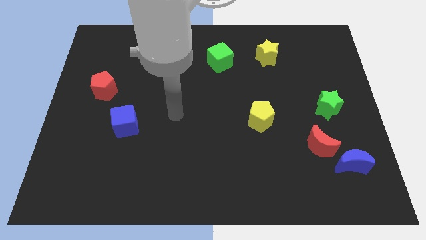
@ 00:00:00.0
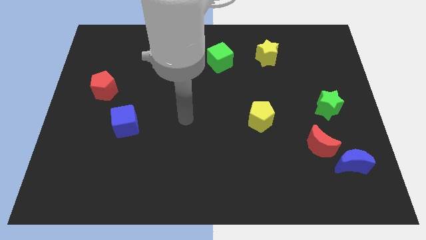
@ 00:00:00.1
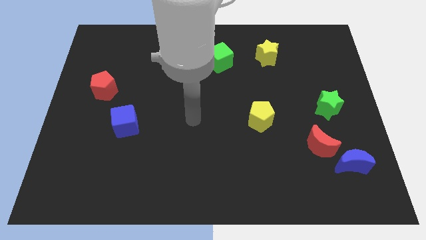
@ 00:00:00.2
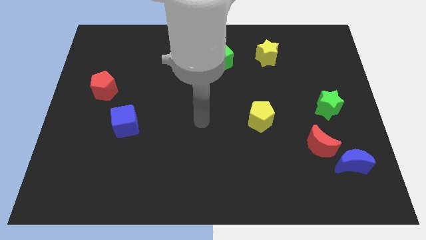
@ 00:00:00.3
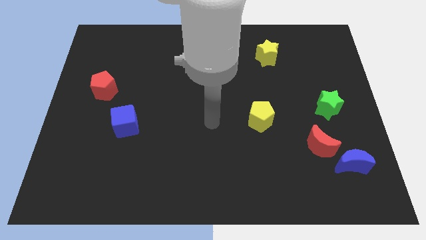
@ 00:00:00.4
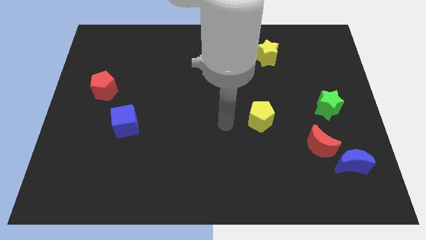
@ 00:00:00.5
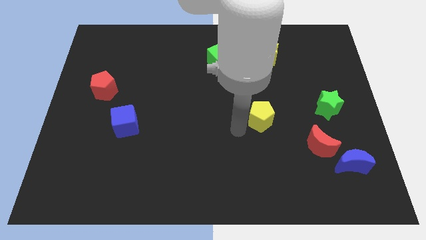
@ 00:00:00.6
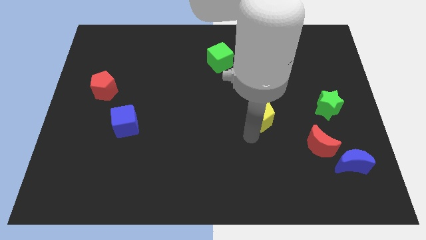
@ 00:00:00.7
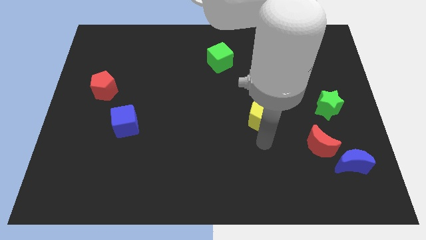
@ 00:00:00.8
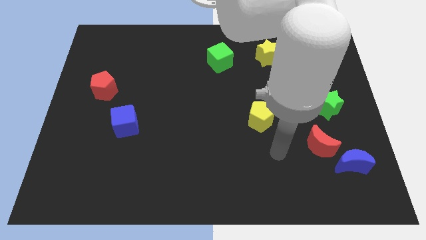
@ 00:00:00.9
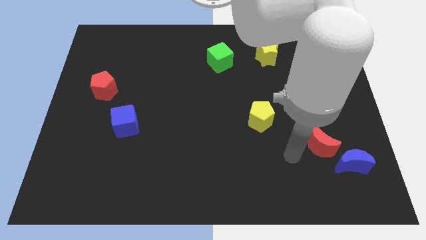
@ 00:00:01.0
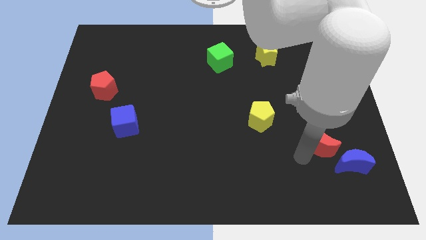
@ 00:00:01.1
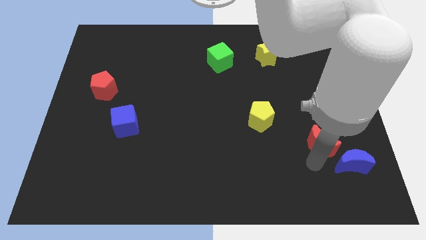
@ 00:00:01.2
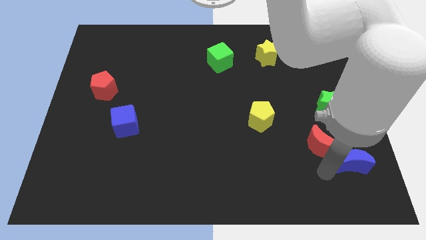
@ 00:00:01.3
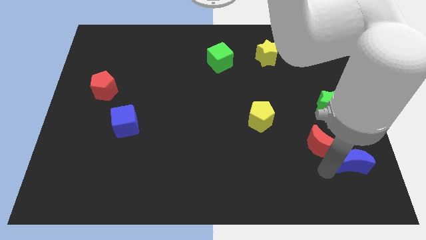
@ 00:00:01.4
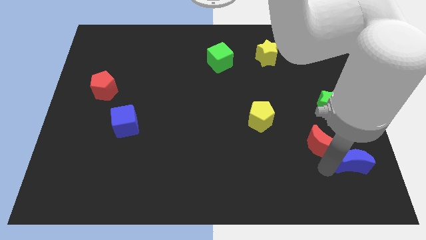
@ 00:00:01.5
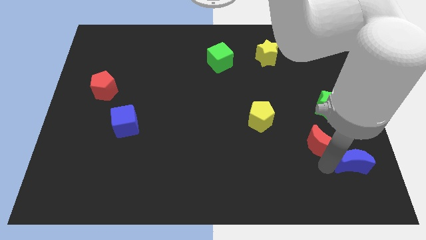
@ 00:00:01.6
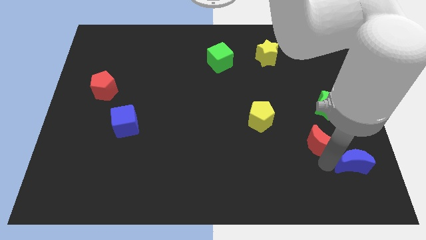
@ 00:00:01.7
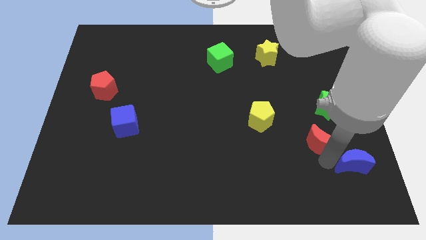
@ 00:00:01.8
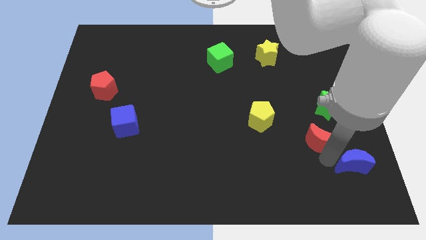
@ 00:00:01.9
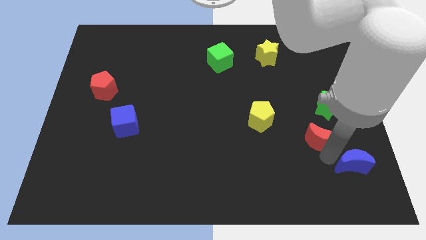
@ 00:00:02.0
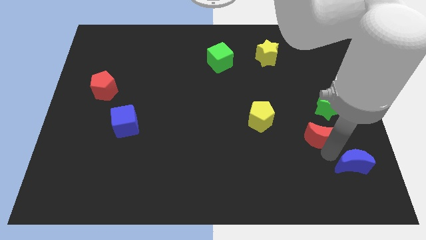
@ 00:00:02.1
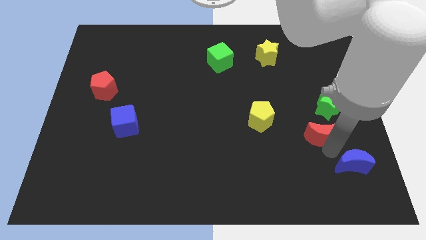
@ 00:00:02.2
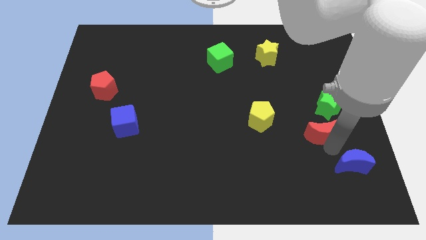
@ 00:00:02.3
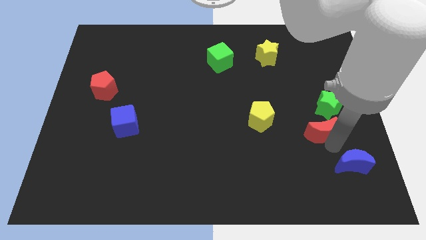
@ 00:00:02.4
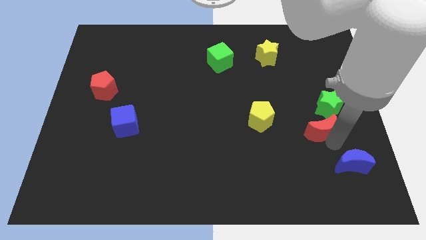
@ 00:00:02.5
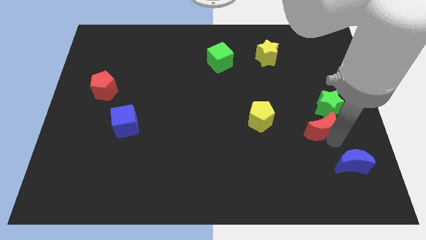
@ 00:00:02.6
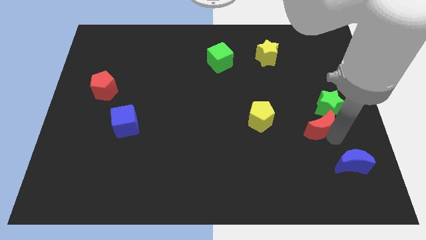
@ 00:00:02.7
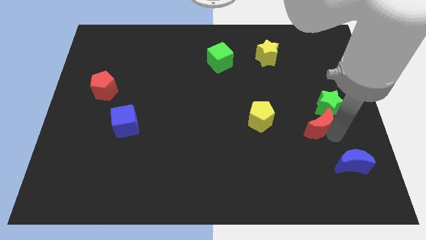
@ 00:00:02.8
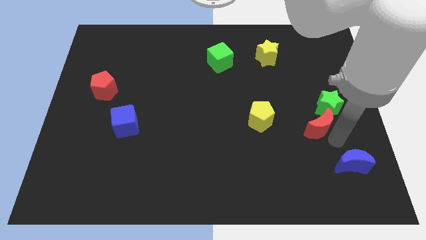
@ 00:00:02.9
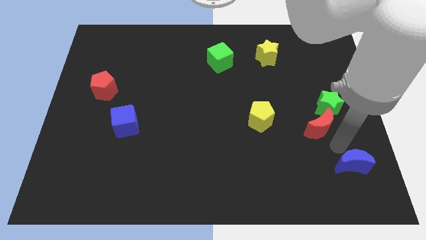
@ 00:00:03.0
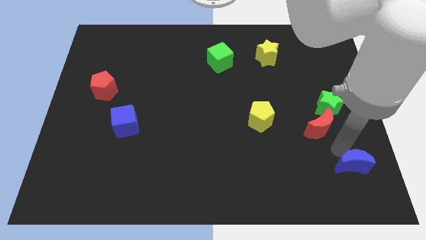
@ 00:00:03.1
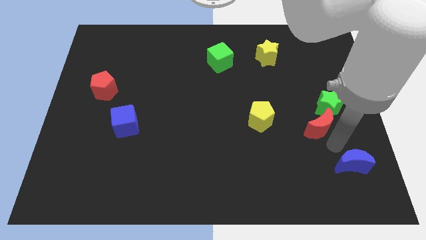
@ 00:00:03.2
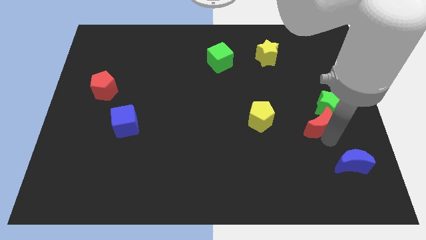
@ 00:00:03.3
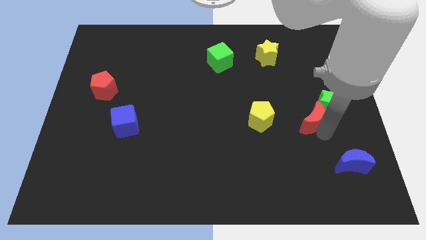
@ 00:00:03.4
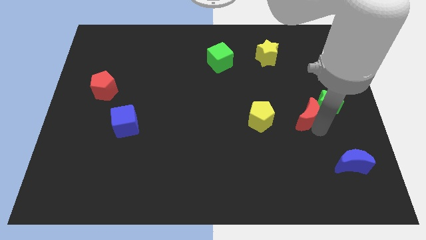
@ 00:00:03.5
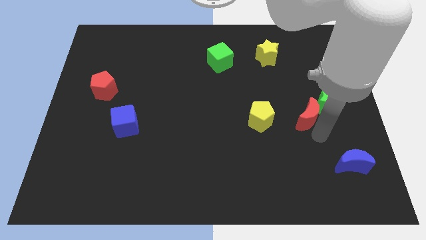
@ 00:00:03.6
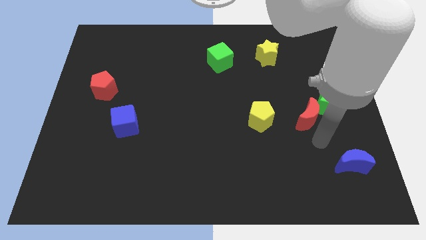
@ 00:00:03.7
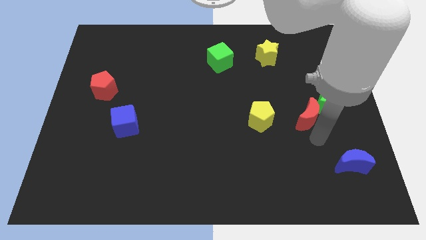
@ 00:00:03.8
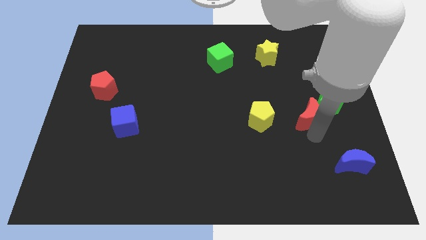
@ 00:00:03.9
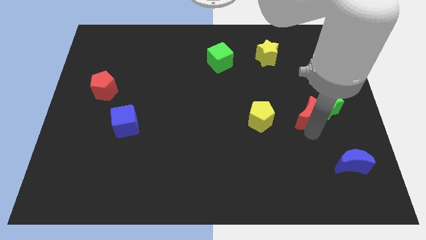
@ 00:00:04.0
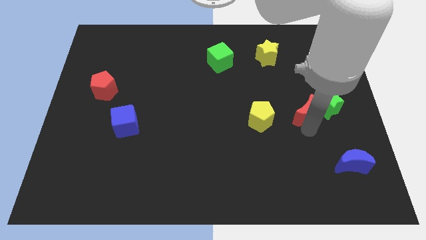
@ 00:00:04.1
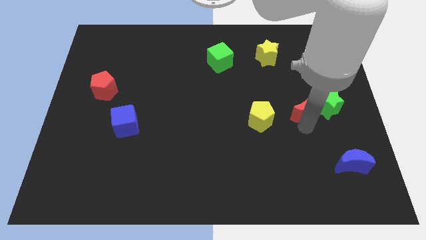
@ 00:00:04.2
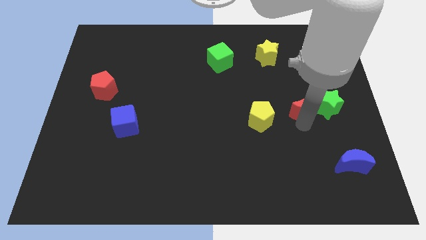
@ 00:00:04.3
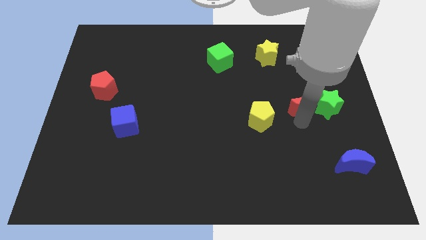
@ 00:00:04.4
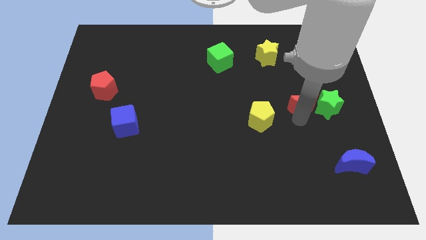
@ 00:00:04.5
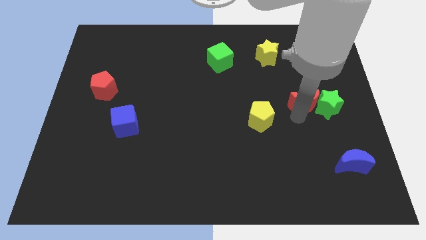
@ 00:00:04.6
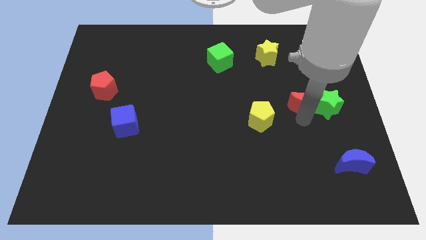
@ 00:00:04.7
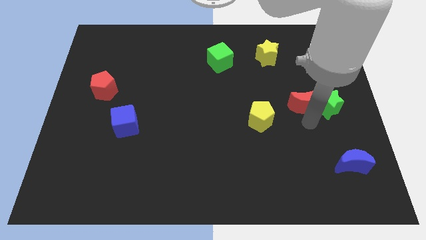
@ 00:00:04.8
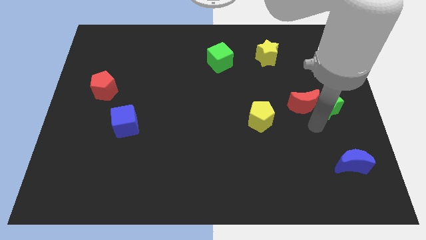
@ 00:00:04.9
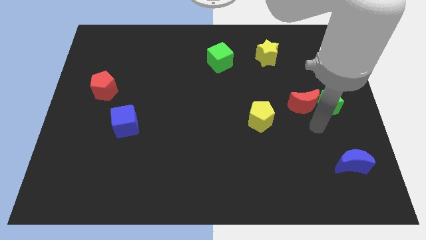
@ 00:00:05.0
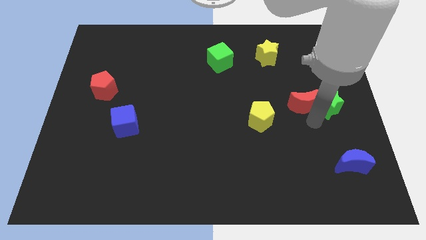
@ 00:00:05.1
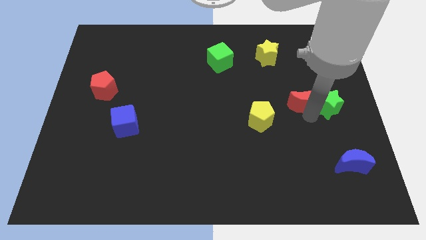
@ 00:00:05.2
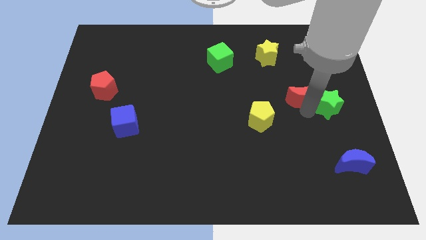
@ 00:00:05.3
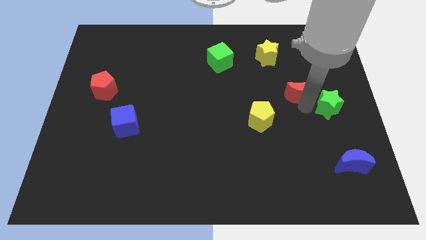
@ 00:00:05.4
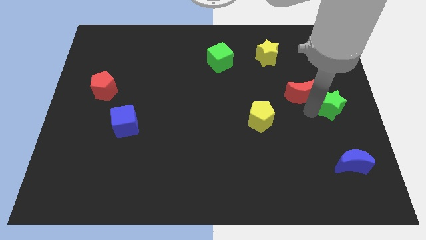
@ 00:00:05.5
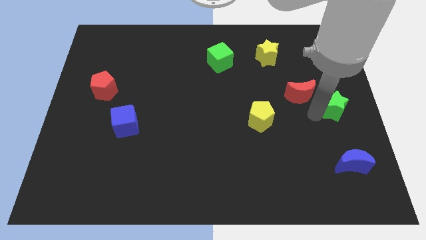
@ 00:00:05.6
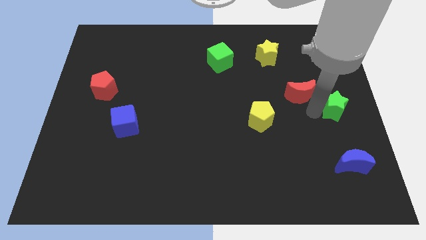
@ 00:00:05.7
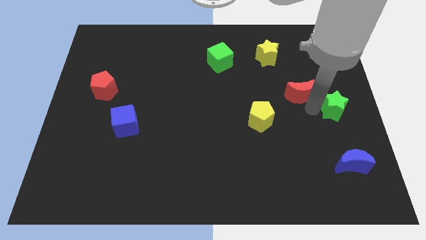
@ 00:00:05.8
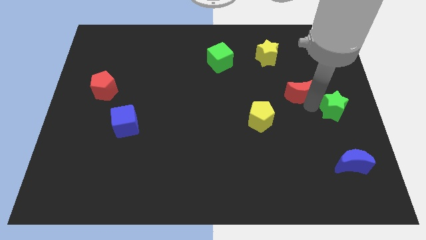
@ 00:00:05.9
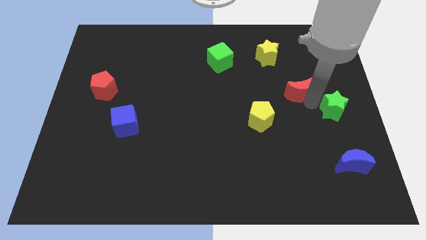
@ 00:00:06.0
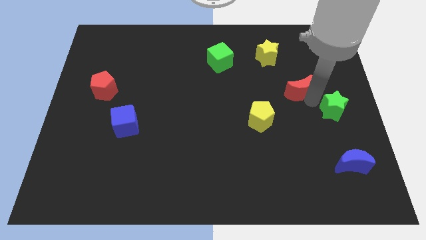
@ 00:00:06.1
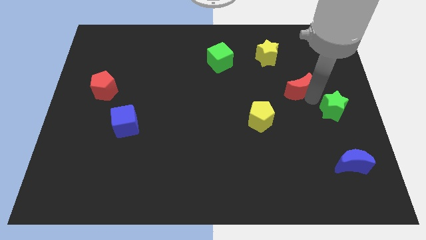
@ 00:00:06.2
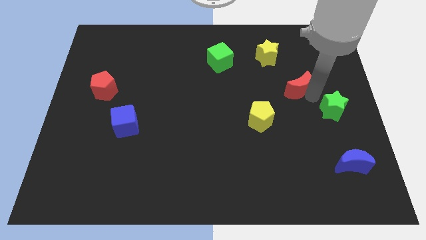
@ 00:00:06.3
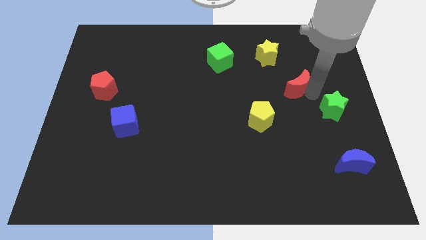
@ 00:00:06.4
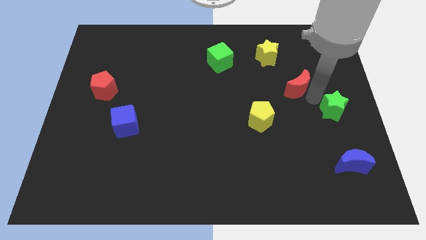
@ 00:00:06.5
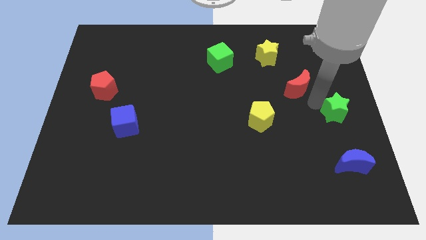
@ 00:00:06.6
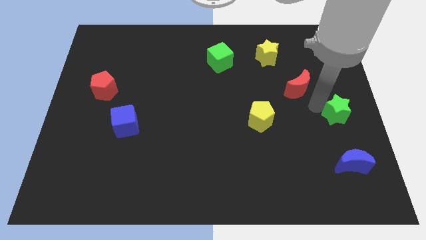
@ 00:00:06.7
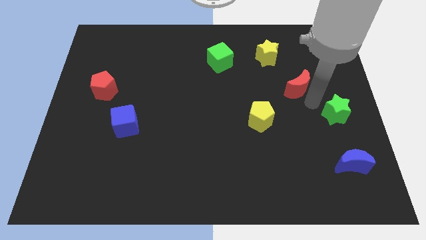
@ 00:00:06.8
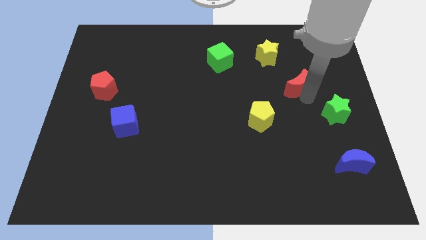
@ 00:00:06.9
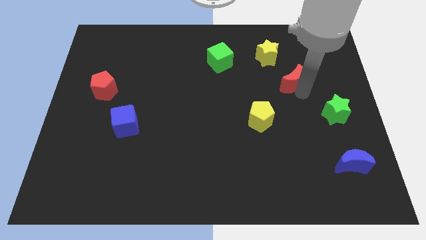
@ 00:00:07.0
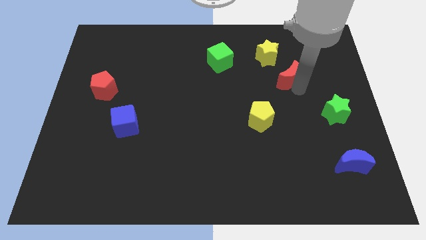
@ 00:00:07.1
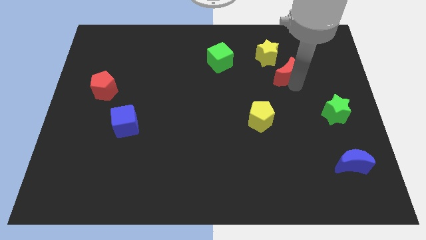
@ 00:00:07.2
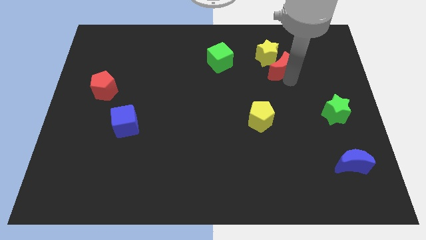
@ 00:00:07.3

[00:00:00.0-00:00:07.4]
move the red moon next to the yellow star
